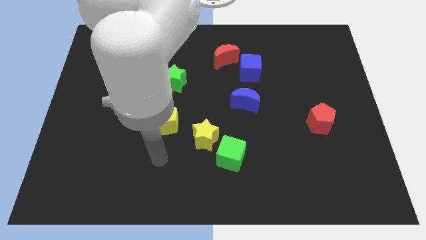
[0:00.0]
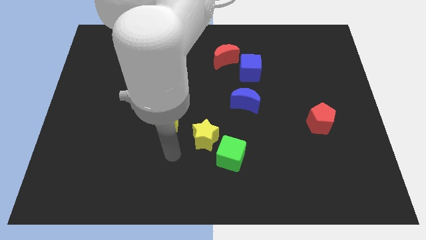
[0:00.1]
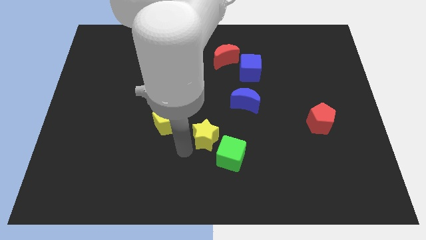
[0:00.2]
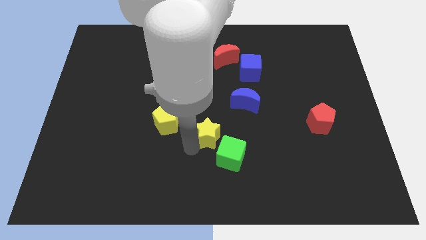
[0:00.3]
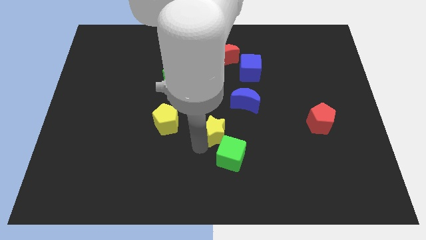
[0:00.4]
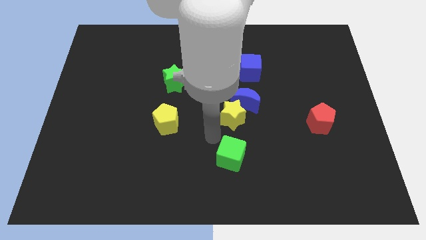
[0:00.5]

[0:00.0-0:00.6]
separate the green cube from the yellow star

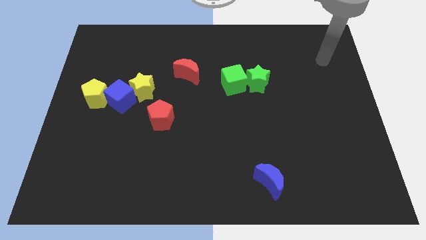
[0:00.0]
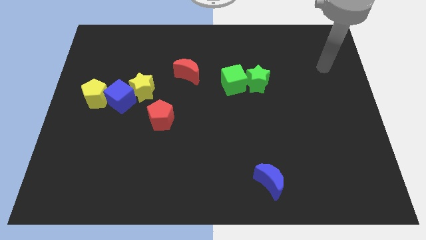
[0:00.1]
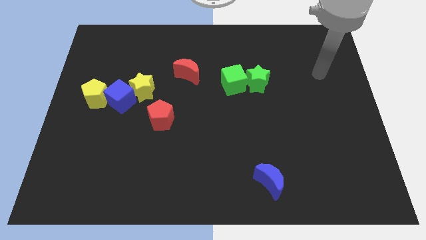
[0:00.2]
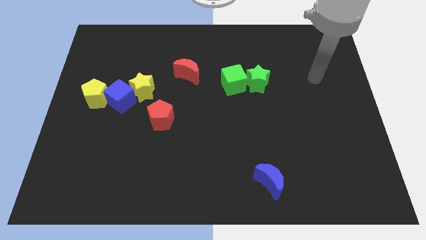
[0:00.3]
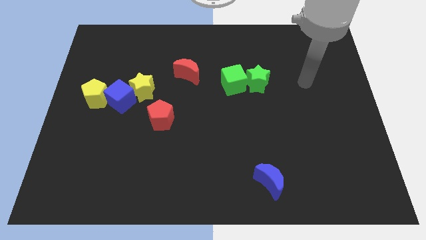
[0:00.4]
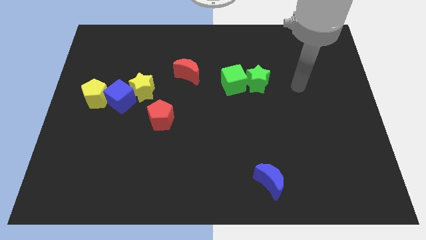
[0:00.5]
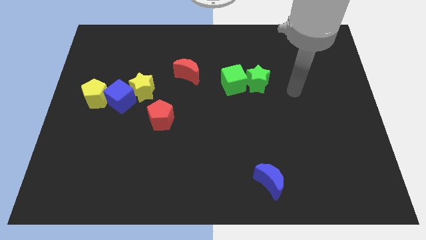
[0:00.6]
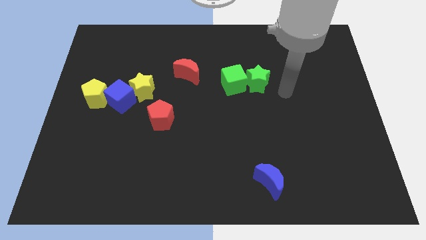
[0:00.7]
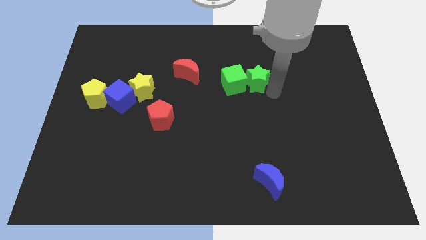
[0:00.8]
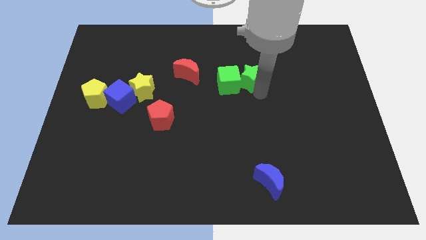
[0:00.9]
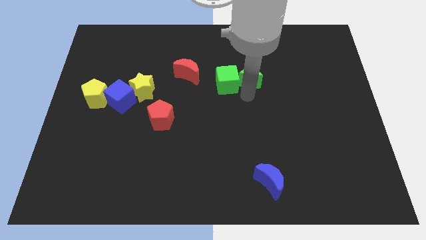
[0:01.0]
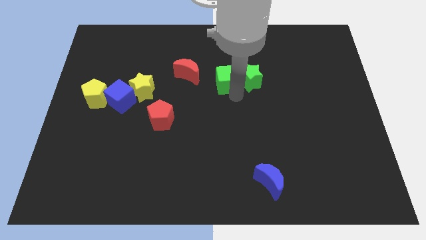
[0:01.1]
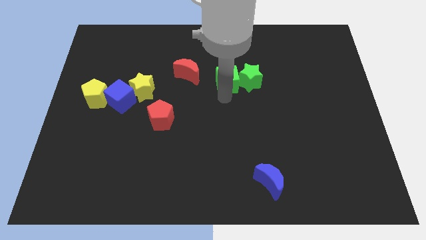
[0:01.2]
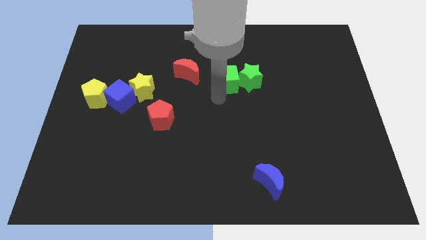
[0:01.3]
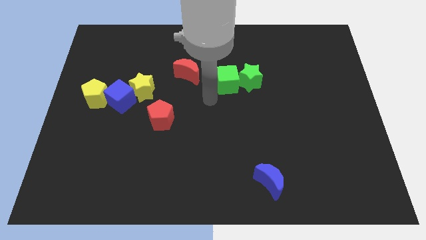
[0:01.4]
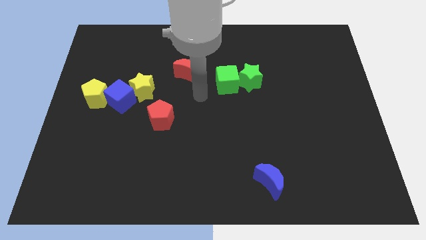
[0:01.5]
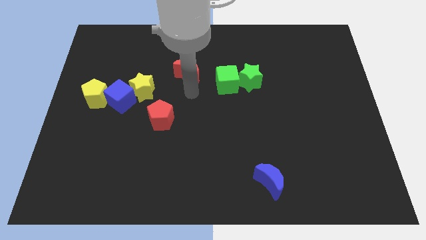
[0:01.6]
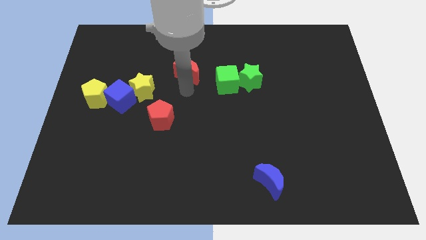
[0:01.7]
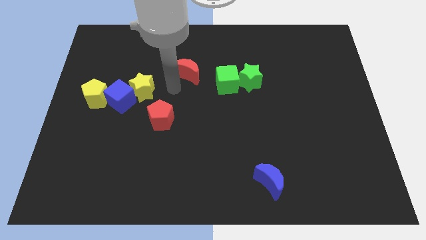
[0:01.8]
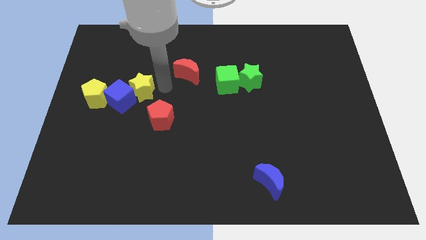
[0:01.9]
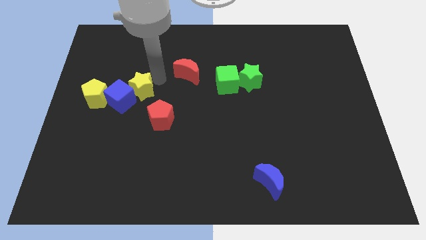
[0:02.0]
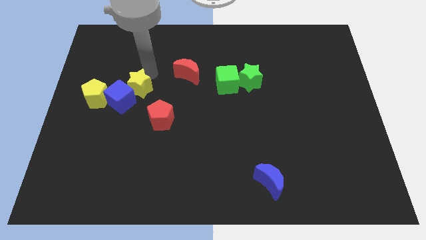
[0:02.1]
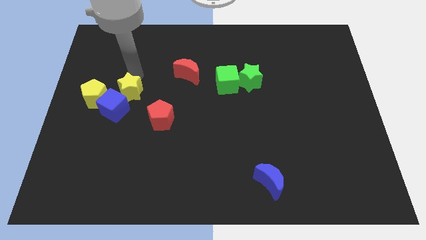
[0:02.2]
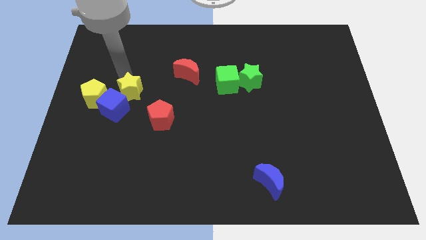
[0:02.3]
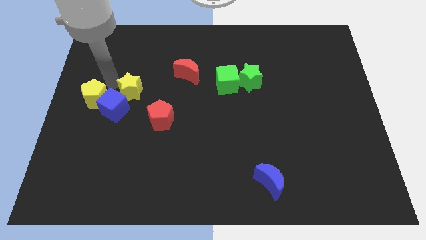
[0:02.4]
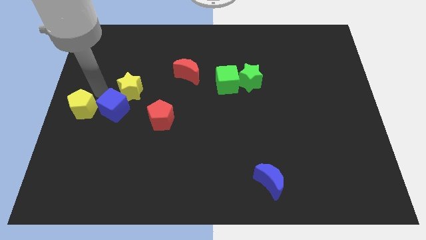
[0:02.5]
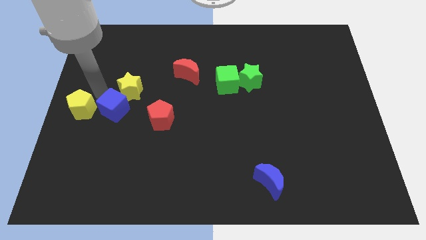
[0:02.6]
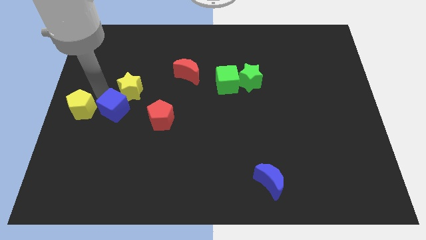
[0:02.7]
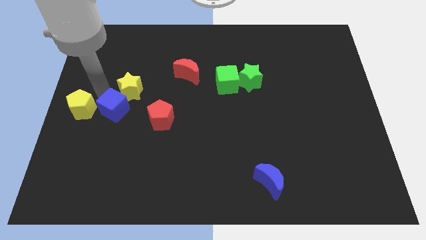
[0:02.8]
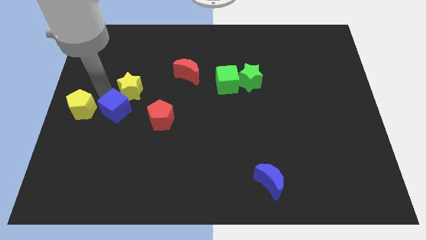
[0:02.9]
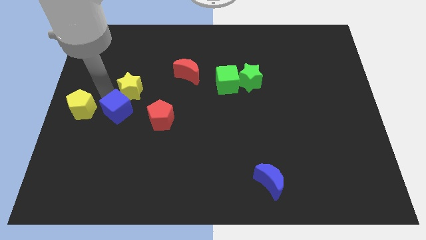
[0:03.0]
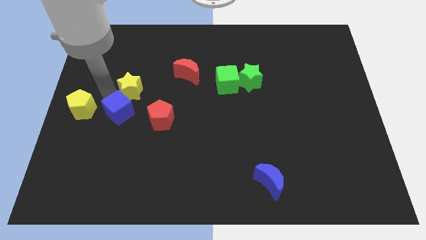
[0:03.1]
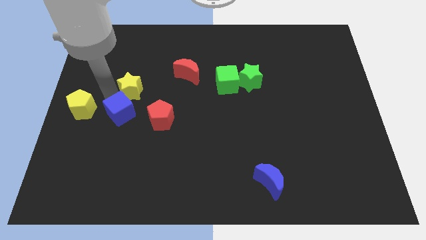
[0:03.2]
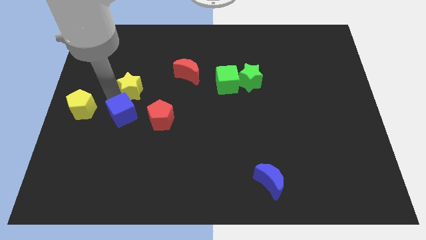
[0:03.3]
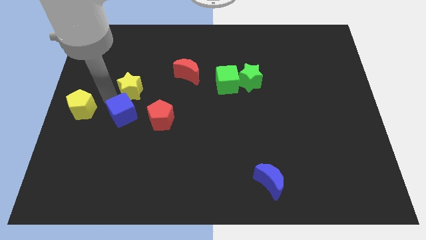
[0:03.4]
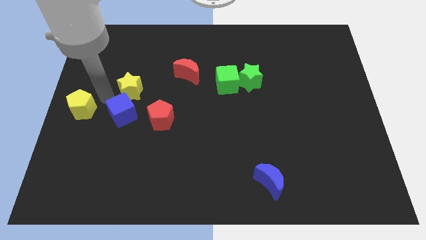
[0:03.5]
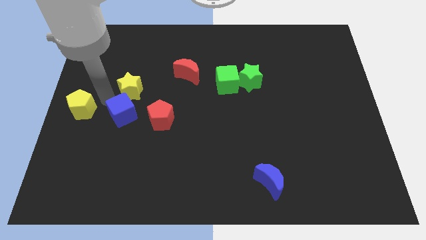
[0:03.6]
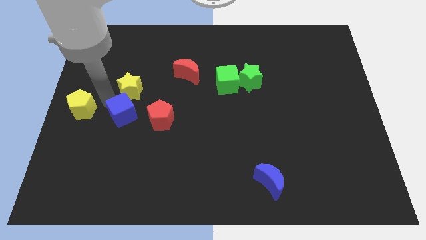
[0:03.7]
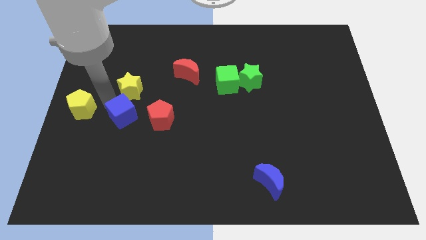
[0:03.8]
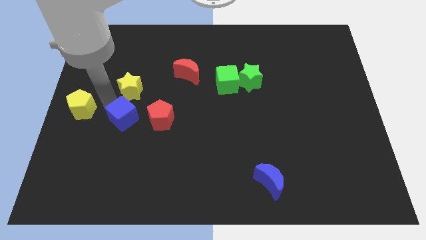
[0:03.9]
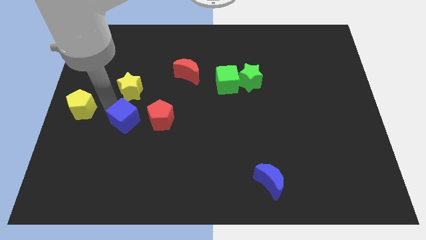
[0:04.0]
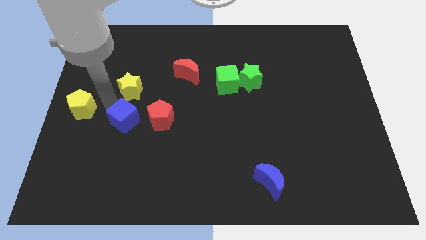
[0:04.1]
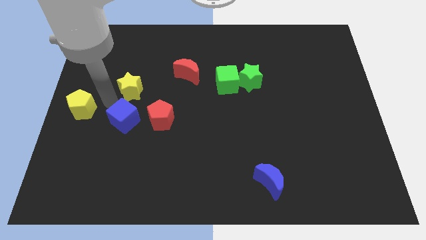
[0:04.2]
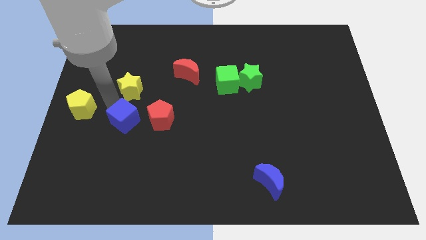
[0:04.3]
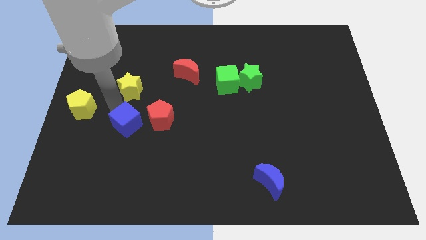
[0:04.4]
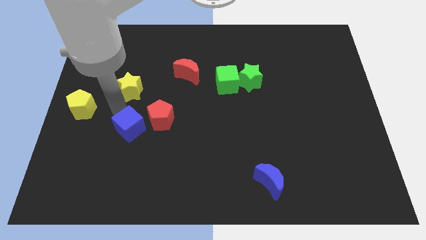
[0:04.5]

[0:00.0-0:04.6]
separate the blue cube from the yellow star and yellow pentagon

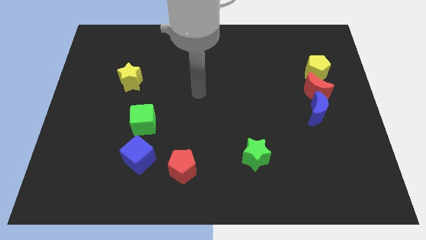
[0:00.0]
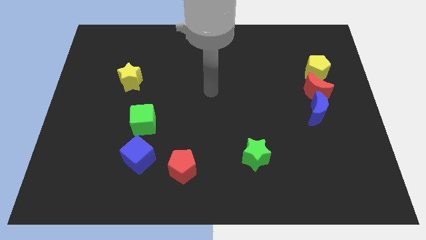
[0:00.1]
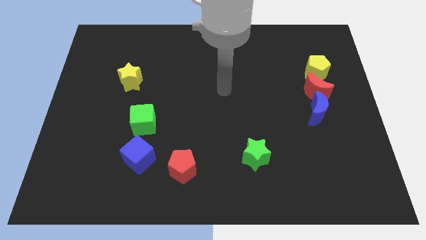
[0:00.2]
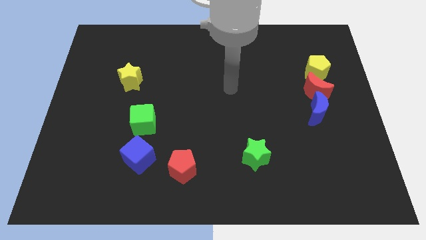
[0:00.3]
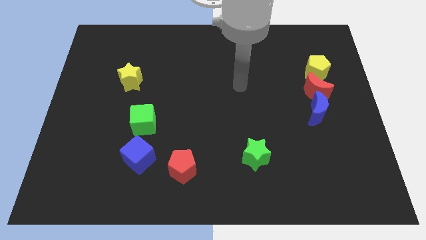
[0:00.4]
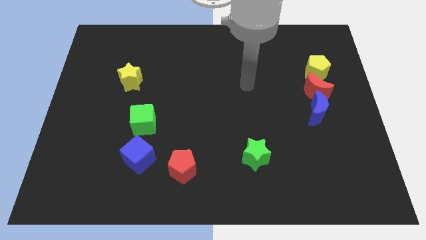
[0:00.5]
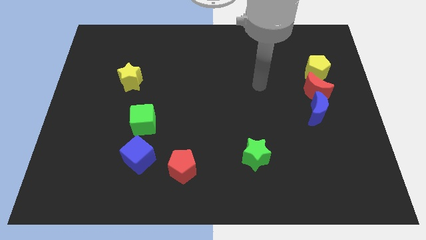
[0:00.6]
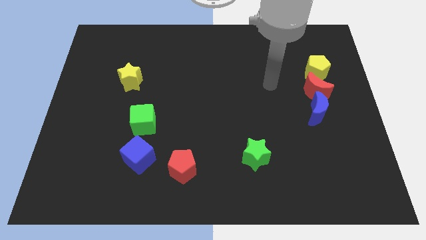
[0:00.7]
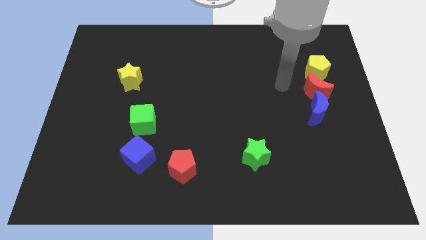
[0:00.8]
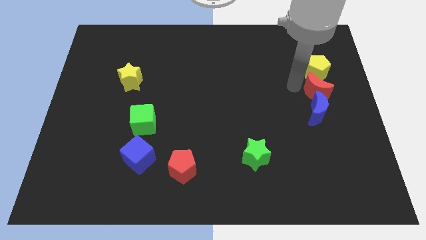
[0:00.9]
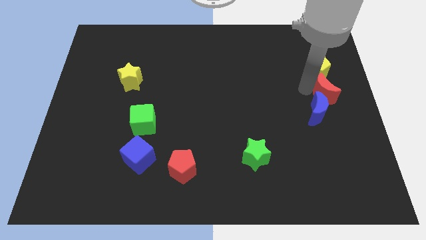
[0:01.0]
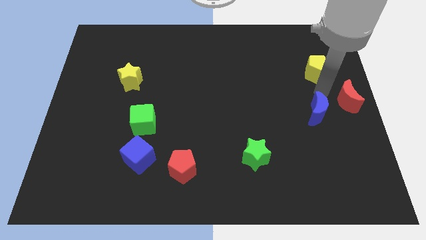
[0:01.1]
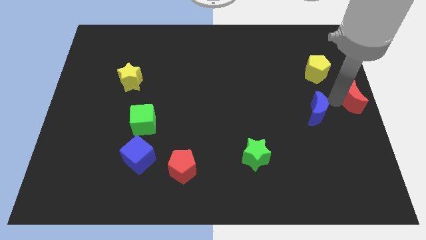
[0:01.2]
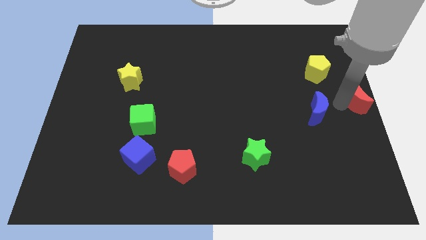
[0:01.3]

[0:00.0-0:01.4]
separate the blue moon from the red moon

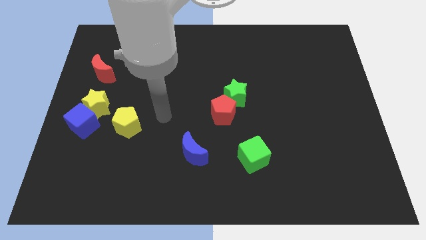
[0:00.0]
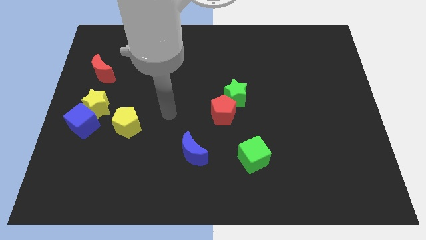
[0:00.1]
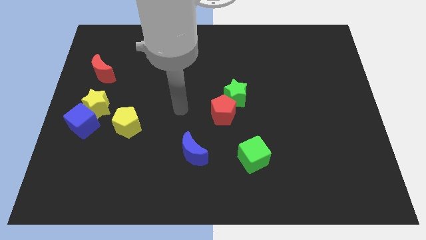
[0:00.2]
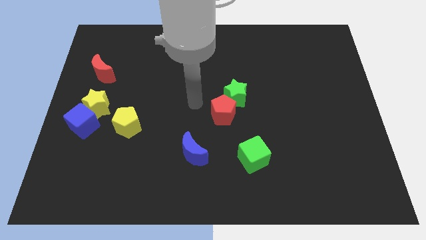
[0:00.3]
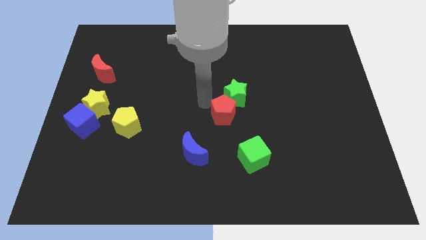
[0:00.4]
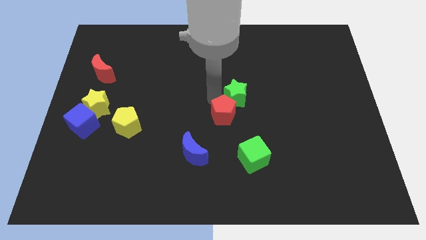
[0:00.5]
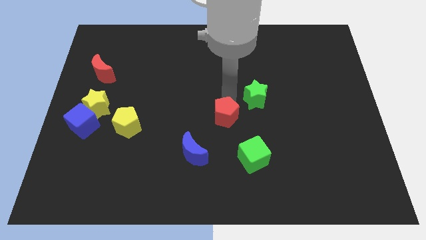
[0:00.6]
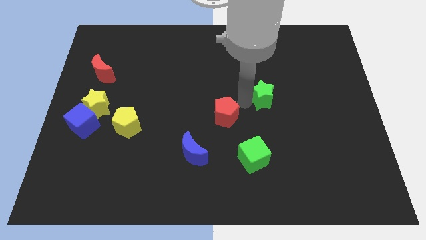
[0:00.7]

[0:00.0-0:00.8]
pull the red pentagon apart from the green star

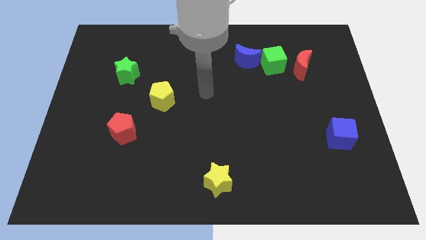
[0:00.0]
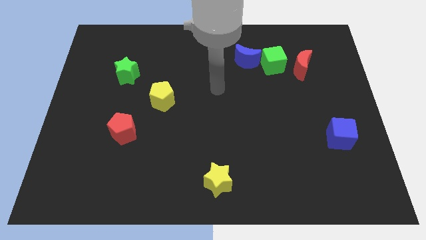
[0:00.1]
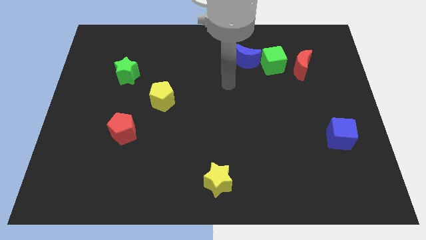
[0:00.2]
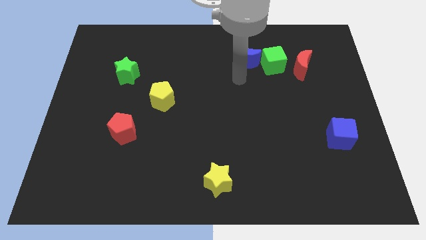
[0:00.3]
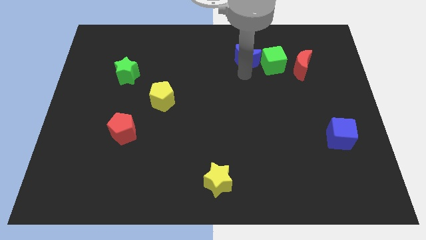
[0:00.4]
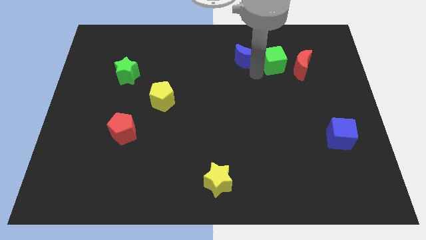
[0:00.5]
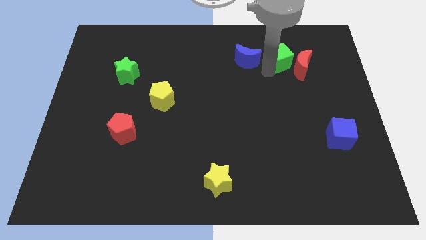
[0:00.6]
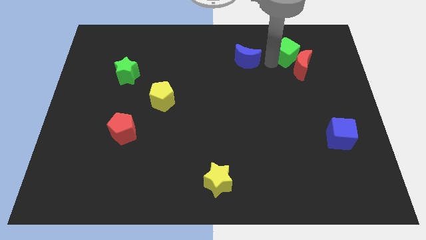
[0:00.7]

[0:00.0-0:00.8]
separate the blue moon from the green cube

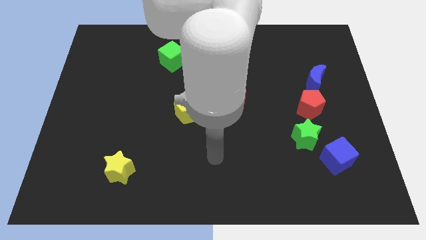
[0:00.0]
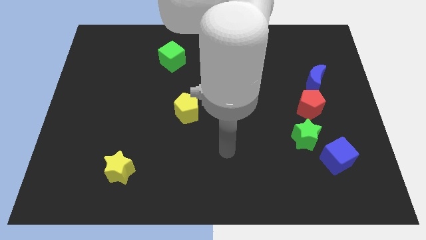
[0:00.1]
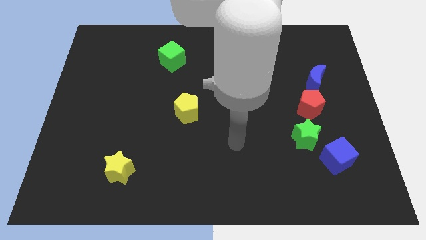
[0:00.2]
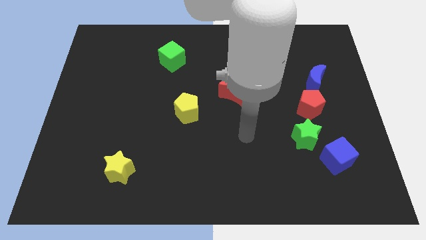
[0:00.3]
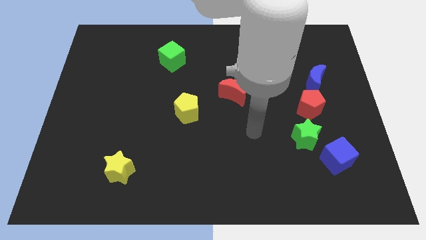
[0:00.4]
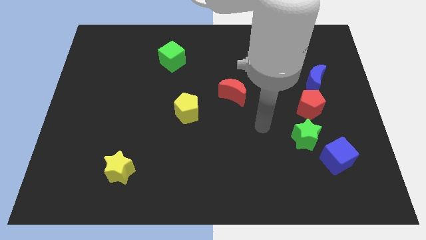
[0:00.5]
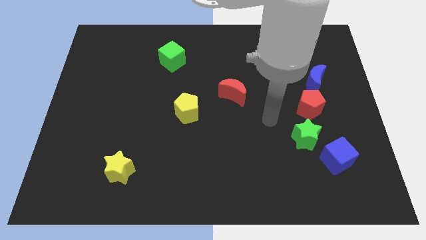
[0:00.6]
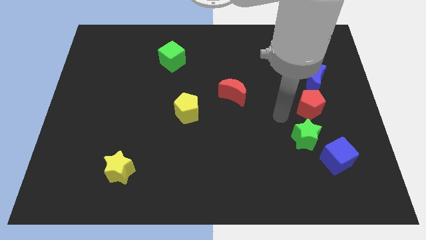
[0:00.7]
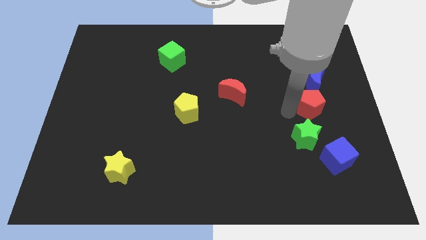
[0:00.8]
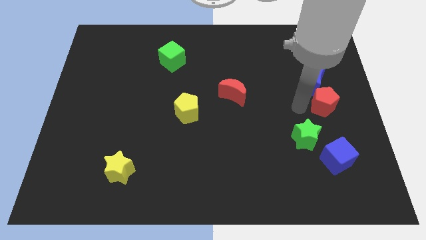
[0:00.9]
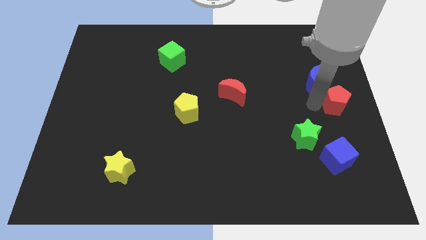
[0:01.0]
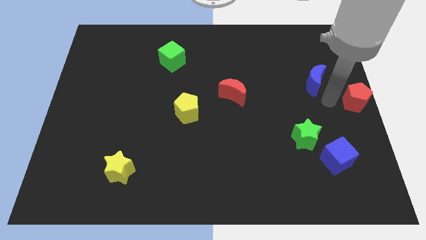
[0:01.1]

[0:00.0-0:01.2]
pull the blue moon apart from the red pentagon
